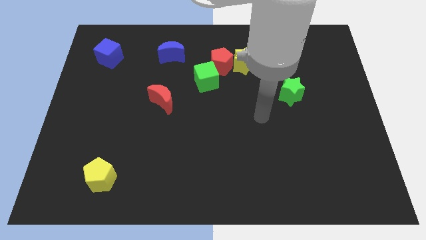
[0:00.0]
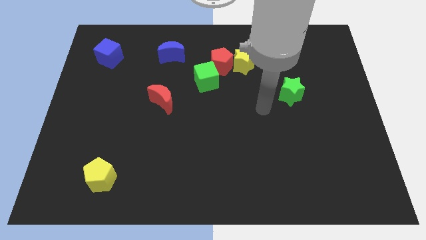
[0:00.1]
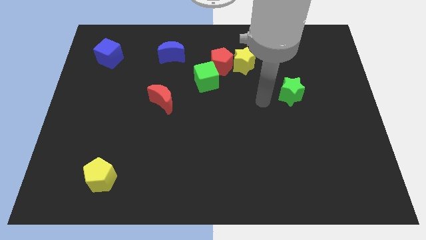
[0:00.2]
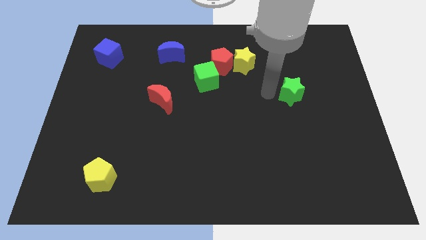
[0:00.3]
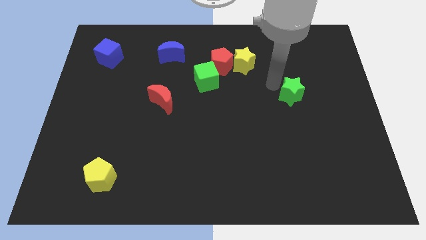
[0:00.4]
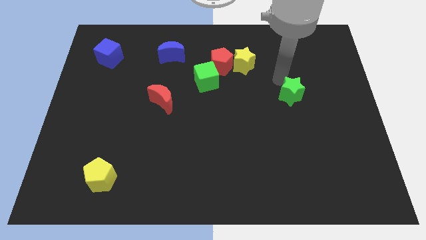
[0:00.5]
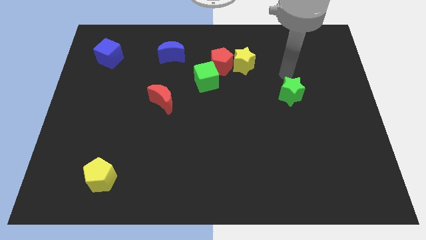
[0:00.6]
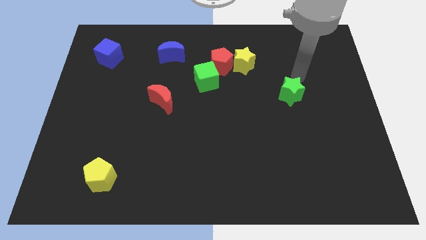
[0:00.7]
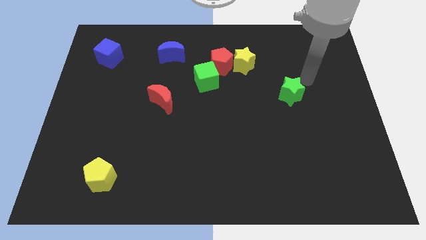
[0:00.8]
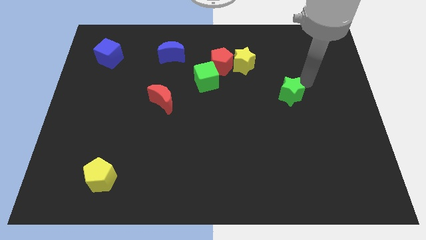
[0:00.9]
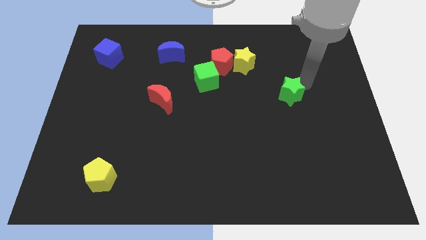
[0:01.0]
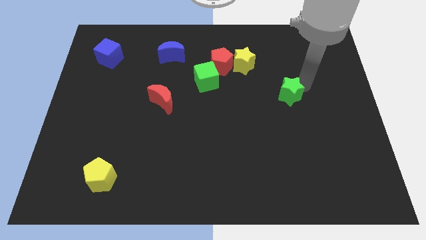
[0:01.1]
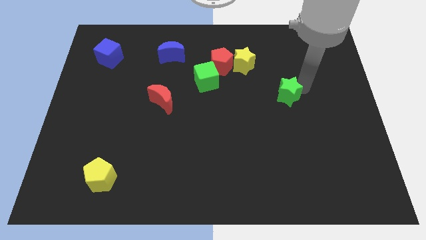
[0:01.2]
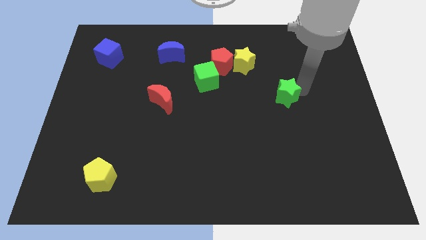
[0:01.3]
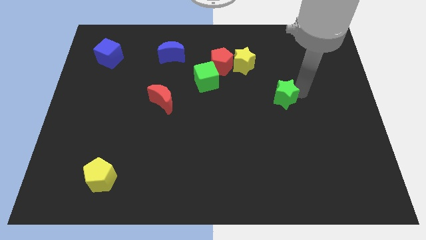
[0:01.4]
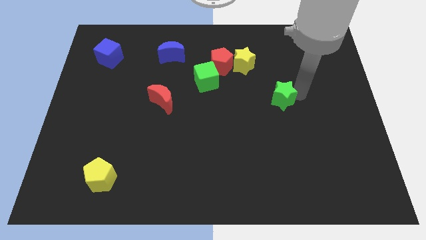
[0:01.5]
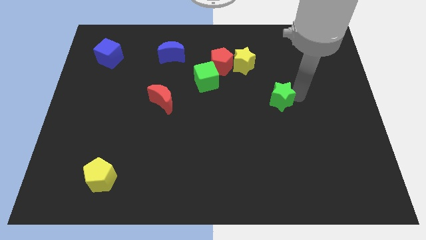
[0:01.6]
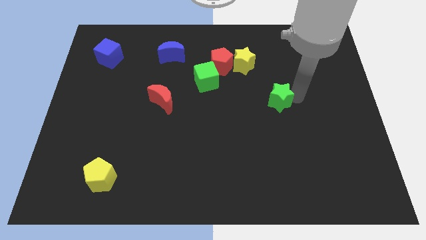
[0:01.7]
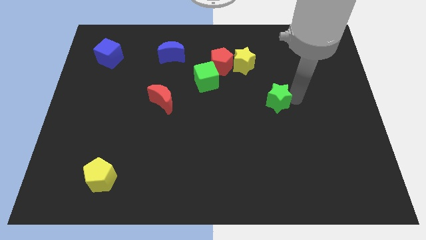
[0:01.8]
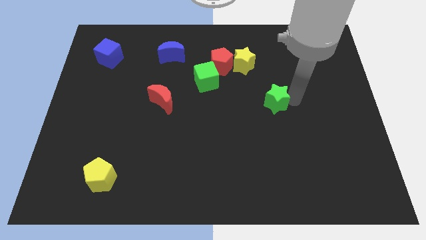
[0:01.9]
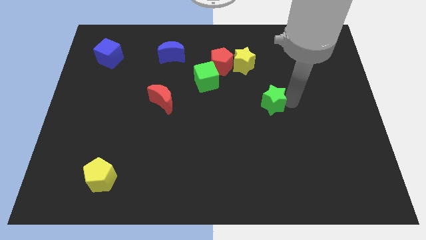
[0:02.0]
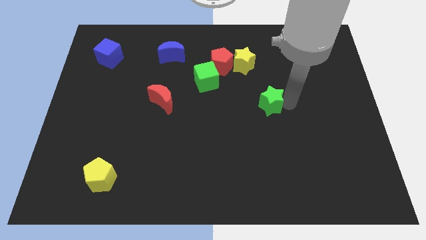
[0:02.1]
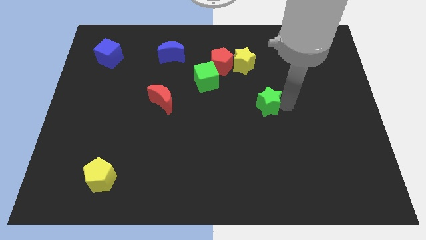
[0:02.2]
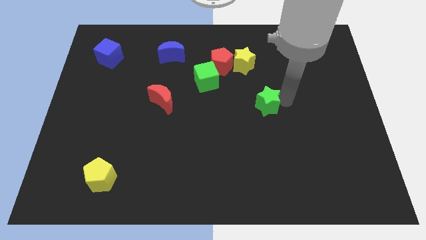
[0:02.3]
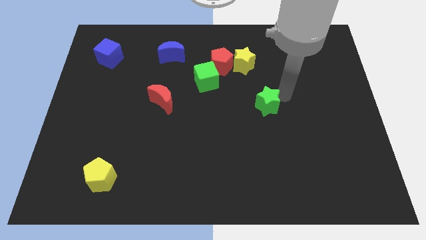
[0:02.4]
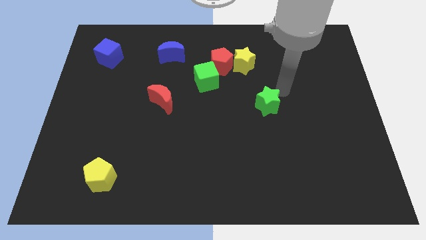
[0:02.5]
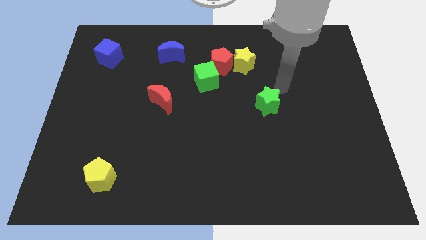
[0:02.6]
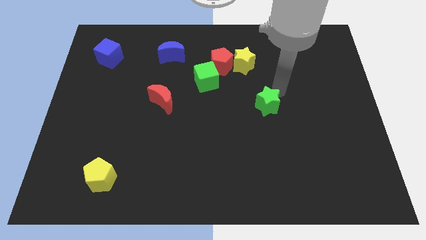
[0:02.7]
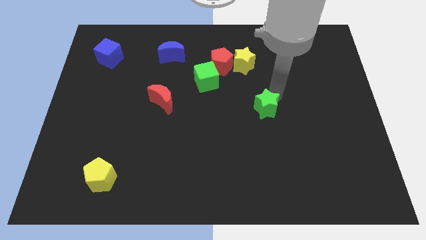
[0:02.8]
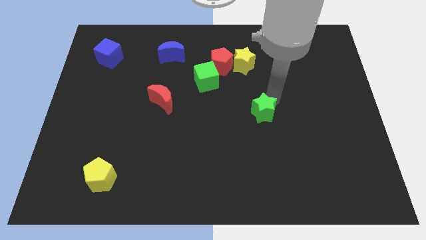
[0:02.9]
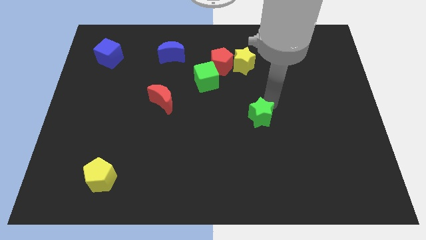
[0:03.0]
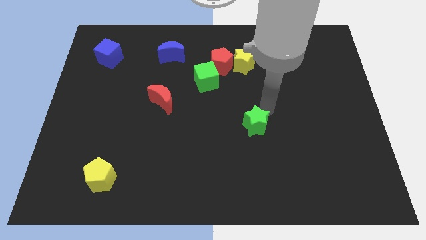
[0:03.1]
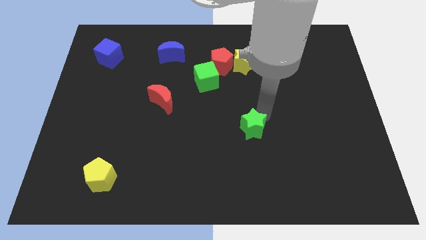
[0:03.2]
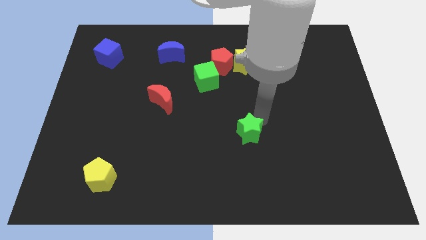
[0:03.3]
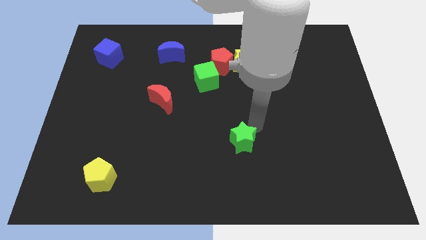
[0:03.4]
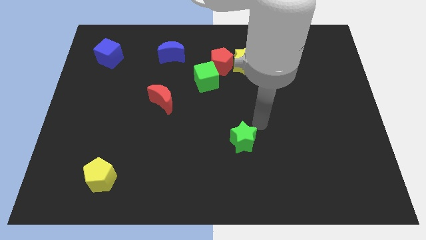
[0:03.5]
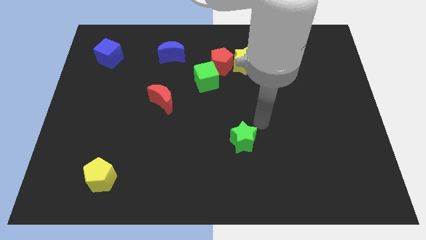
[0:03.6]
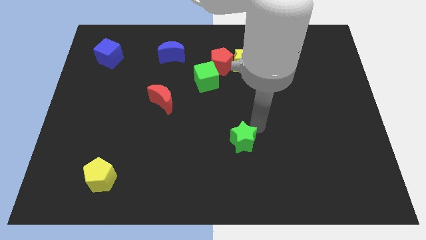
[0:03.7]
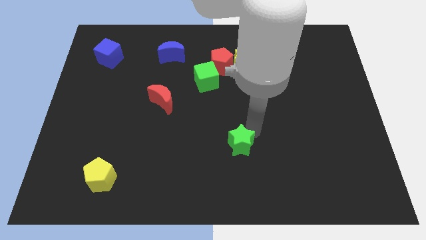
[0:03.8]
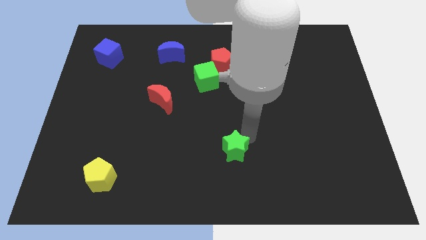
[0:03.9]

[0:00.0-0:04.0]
slide the green star down and then to the left

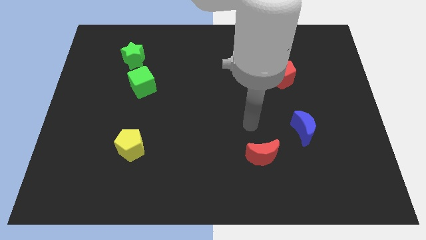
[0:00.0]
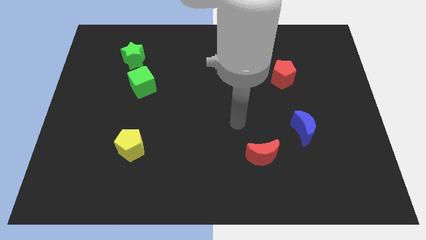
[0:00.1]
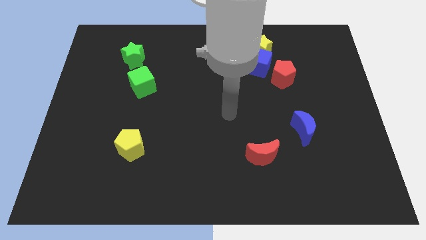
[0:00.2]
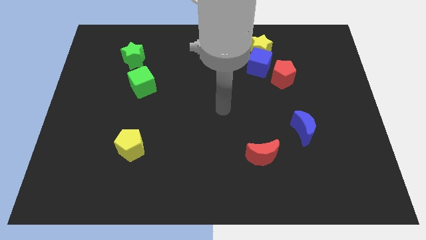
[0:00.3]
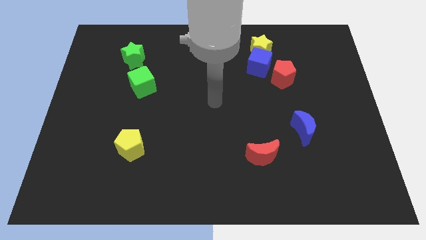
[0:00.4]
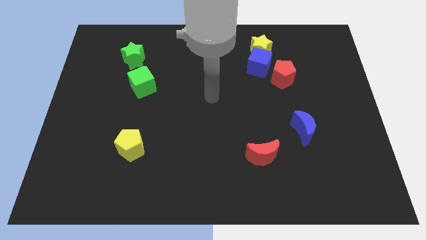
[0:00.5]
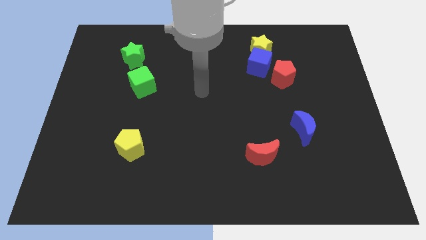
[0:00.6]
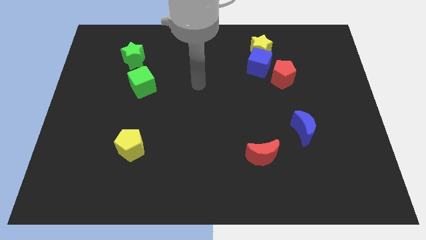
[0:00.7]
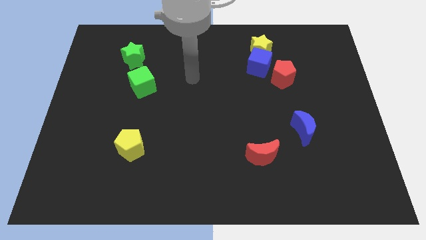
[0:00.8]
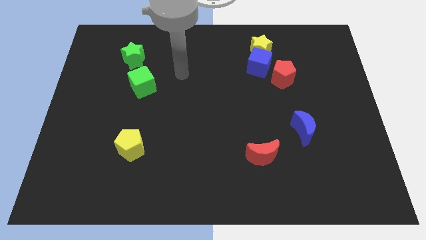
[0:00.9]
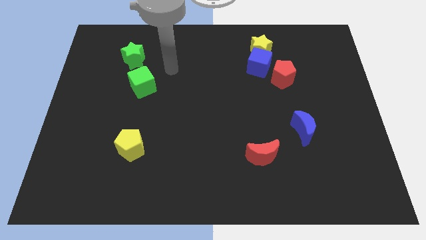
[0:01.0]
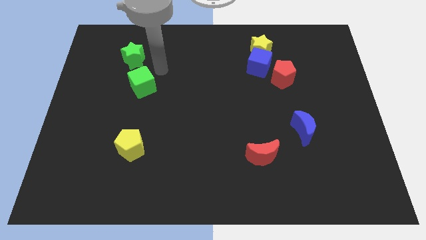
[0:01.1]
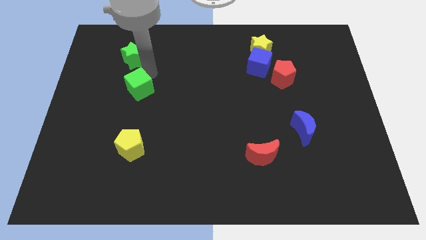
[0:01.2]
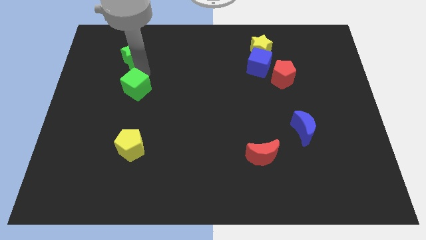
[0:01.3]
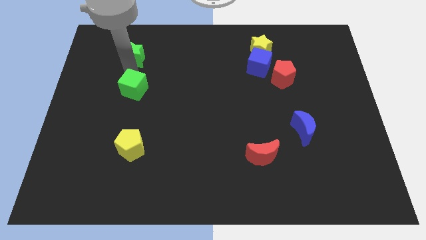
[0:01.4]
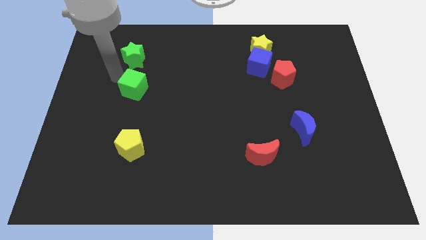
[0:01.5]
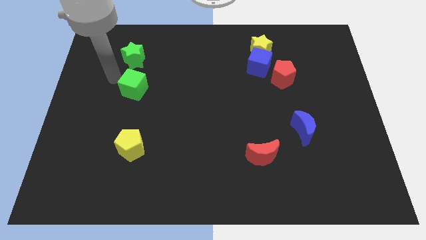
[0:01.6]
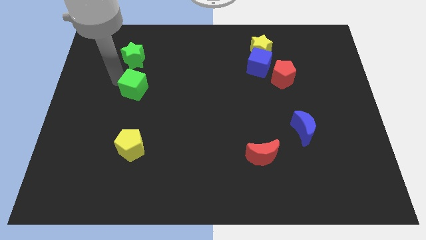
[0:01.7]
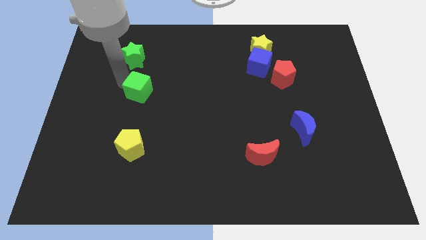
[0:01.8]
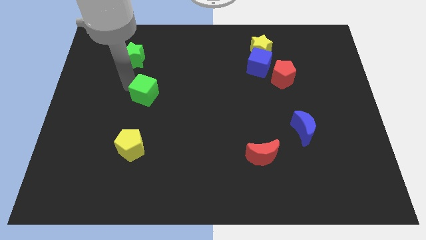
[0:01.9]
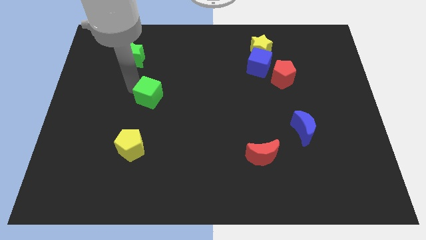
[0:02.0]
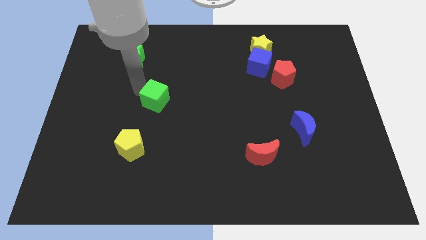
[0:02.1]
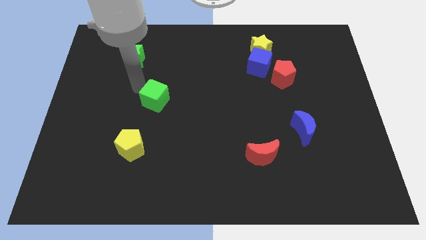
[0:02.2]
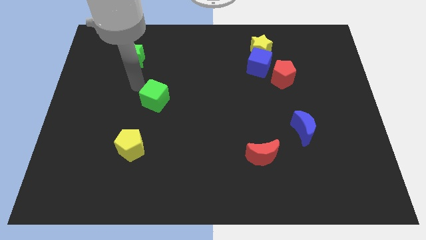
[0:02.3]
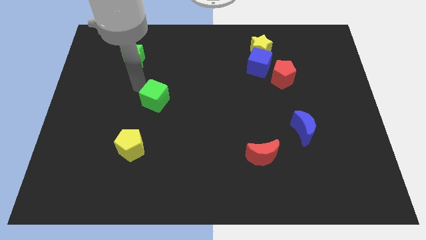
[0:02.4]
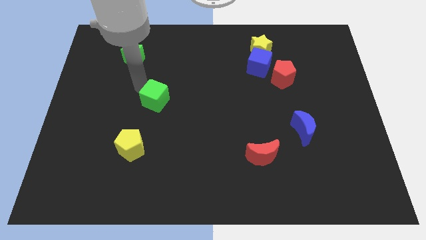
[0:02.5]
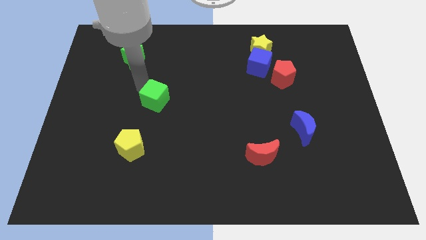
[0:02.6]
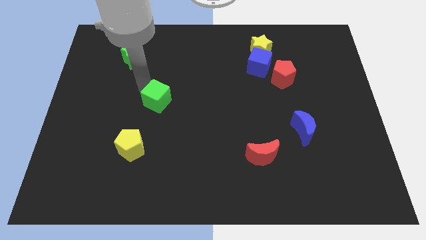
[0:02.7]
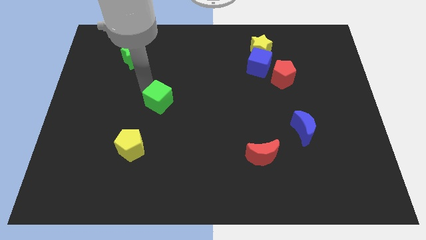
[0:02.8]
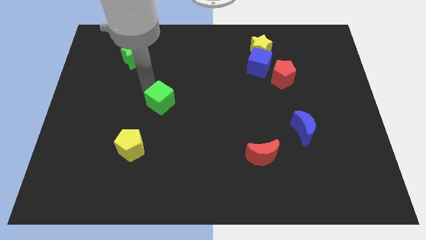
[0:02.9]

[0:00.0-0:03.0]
slightly move the green cube downwards and right

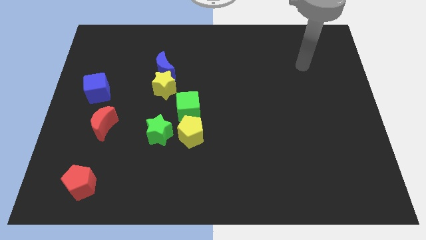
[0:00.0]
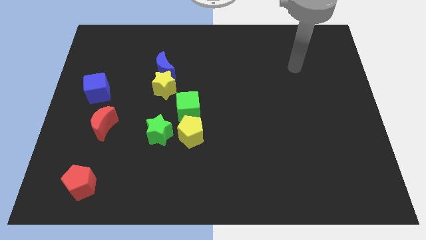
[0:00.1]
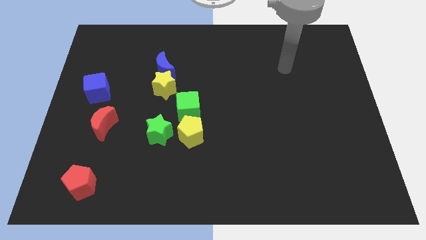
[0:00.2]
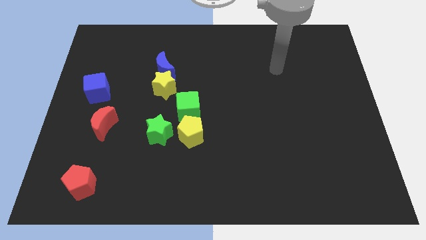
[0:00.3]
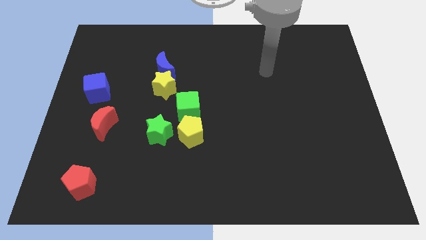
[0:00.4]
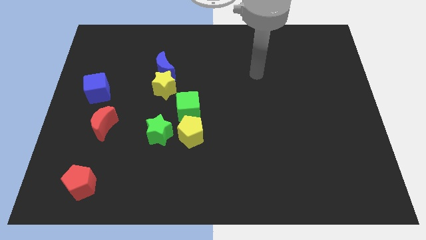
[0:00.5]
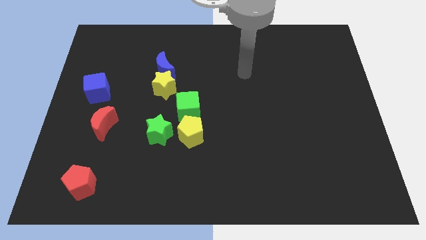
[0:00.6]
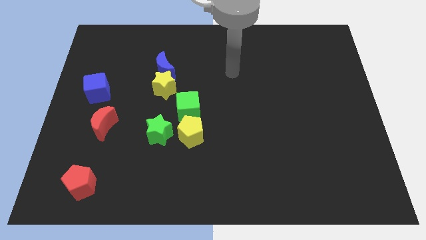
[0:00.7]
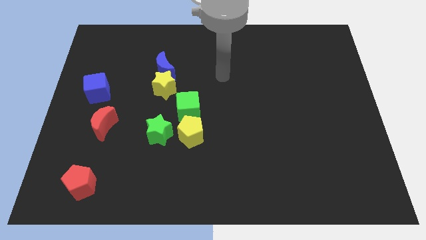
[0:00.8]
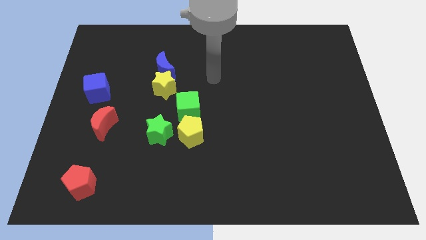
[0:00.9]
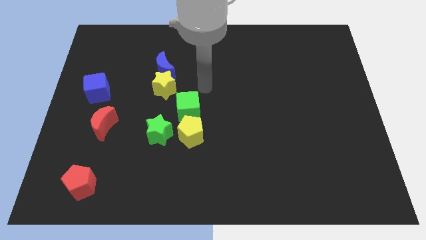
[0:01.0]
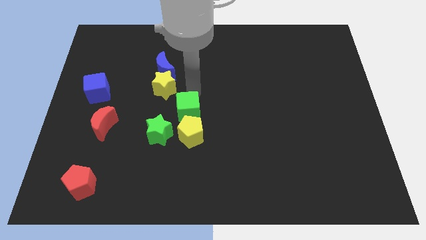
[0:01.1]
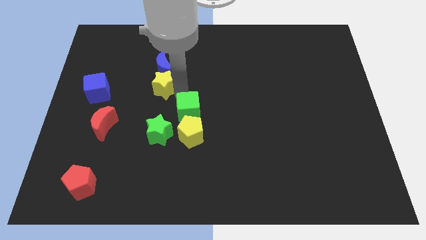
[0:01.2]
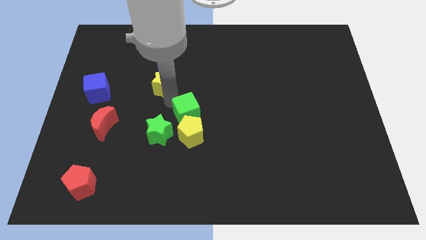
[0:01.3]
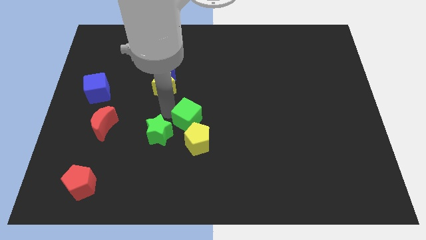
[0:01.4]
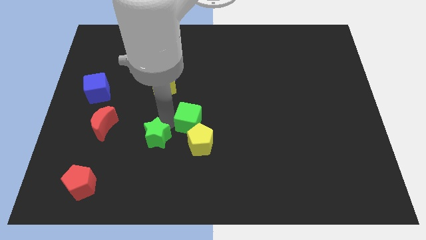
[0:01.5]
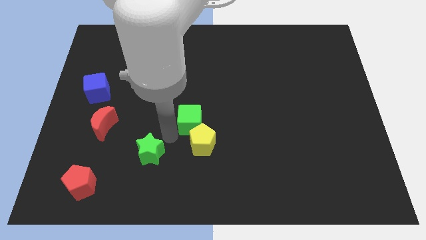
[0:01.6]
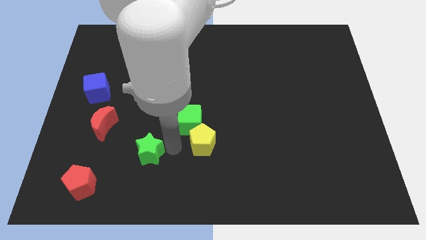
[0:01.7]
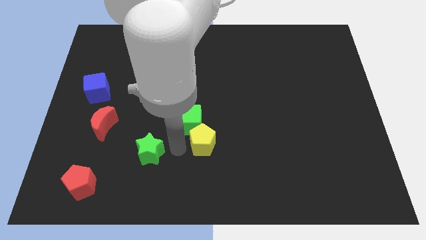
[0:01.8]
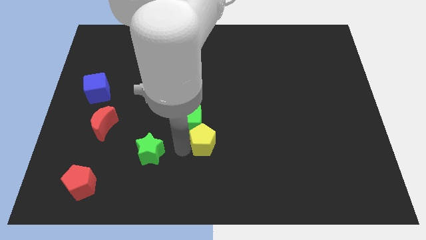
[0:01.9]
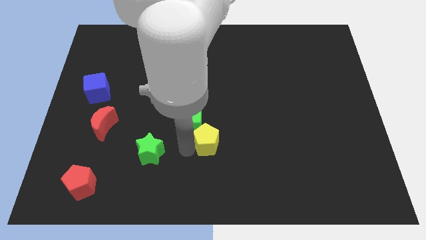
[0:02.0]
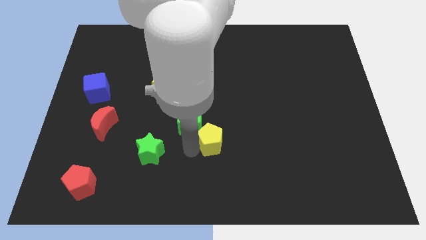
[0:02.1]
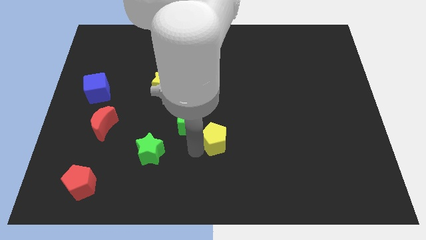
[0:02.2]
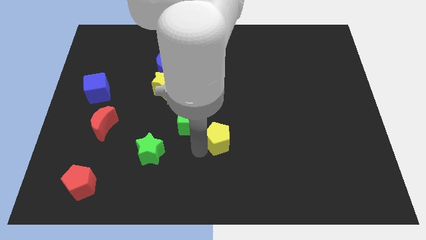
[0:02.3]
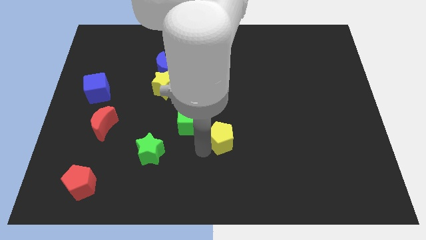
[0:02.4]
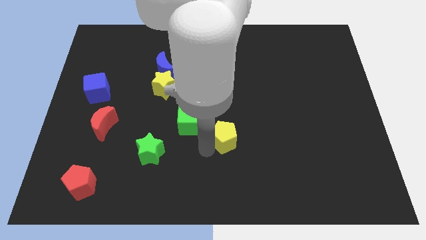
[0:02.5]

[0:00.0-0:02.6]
slide the yellow pentagon right a little
